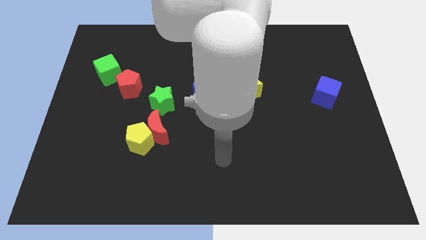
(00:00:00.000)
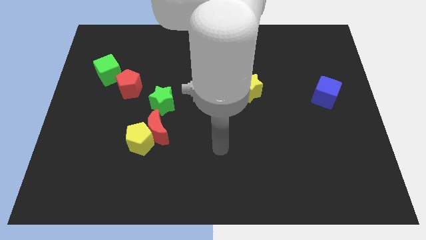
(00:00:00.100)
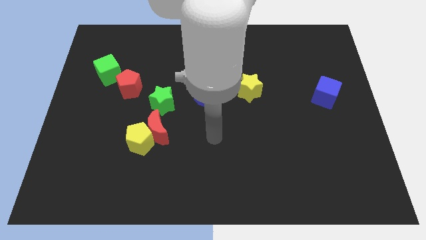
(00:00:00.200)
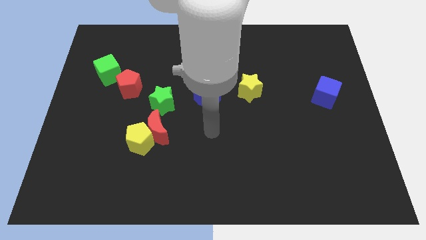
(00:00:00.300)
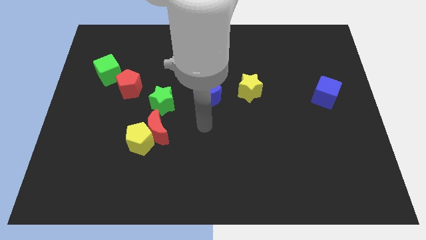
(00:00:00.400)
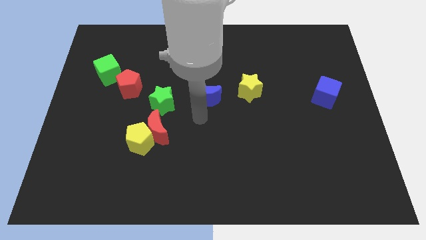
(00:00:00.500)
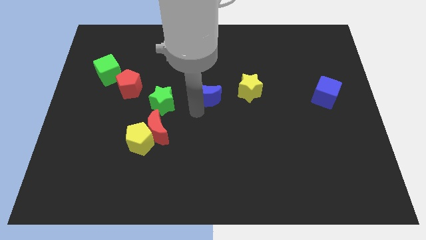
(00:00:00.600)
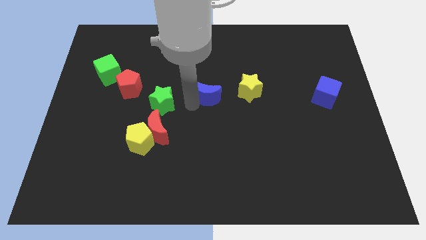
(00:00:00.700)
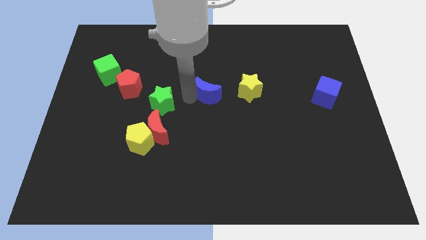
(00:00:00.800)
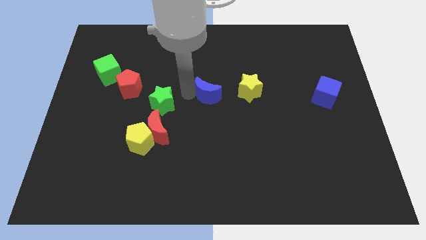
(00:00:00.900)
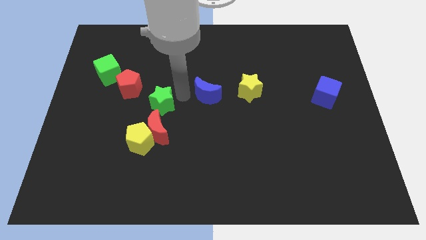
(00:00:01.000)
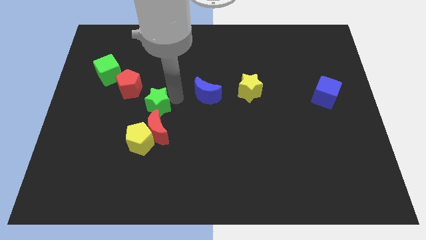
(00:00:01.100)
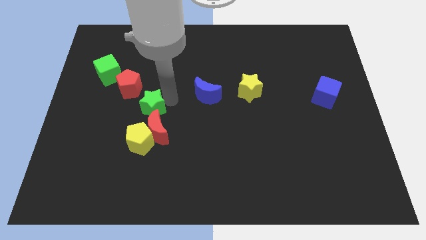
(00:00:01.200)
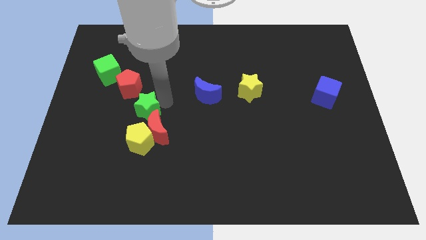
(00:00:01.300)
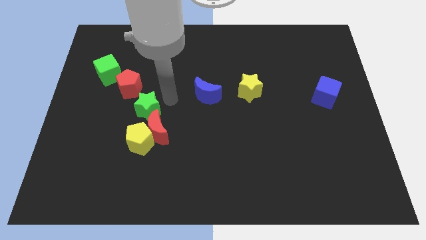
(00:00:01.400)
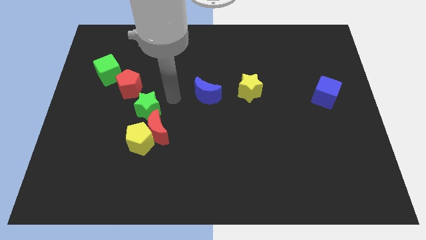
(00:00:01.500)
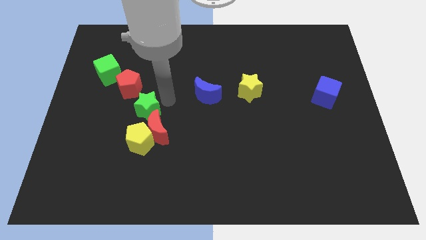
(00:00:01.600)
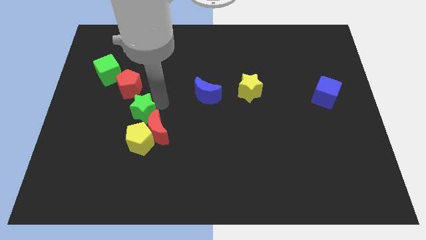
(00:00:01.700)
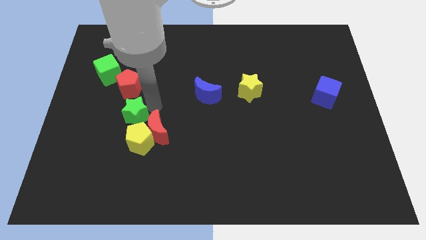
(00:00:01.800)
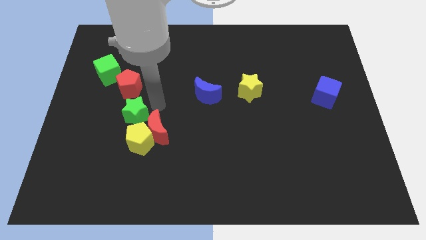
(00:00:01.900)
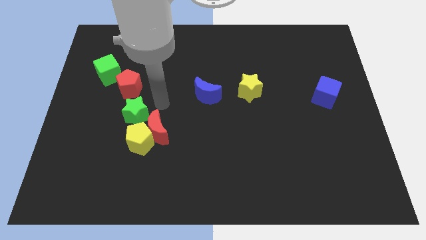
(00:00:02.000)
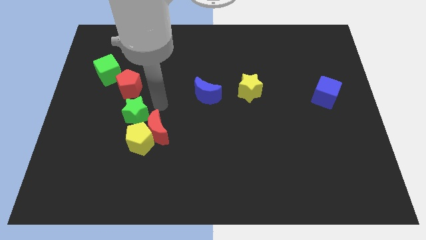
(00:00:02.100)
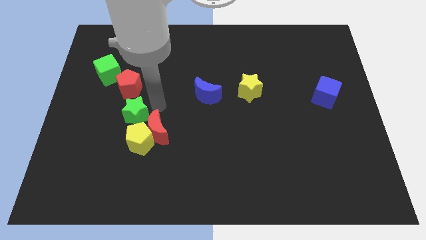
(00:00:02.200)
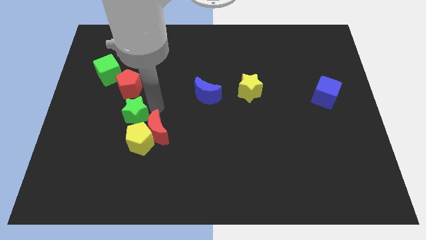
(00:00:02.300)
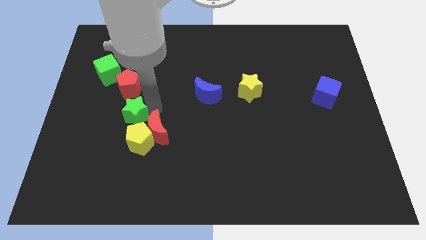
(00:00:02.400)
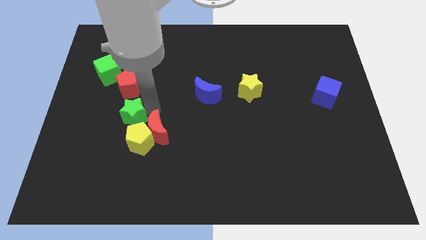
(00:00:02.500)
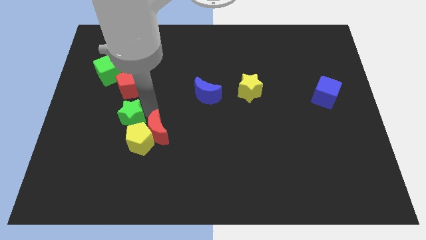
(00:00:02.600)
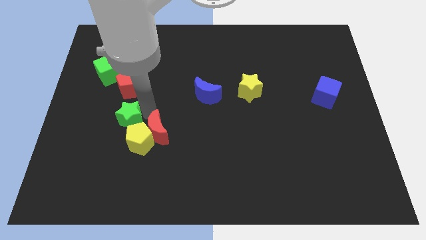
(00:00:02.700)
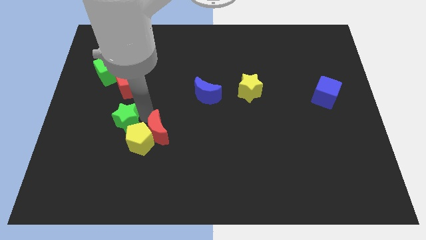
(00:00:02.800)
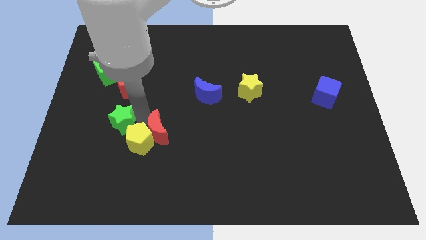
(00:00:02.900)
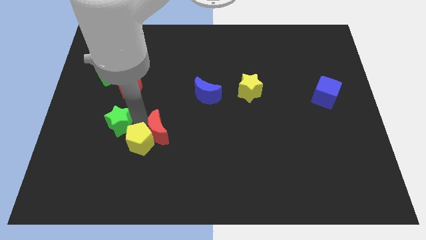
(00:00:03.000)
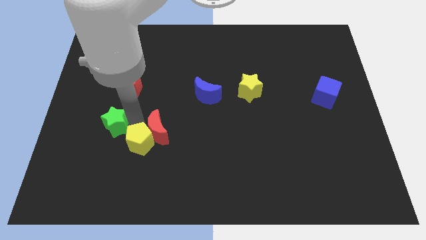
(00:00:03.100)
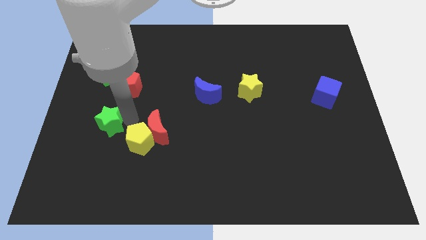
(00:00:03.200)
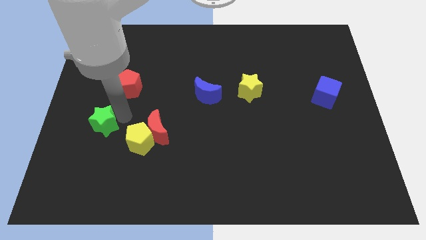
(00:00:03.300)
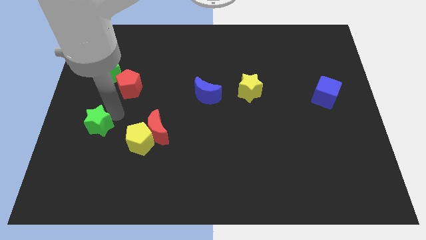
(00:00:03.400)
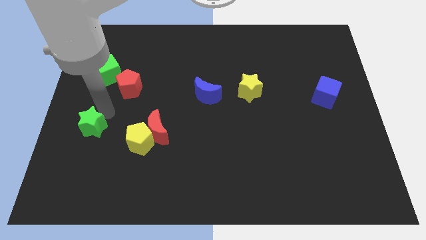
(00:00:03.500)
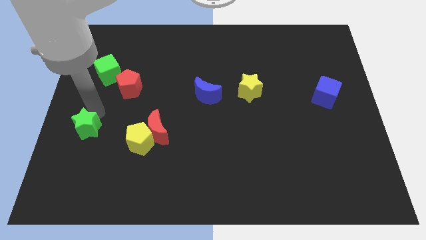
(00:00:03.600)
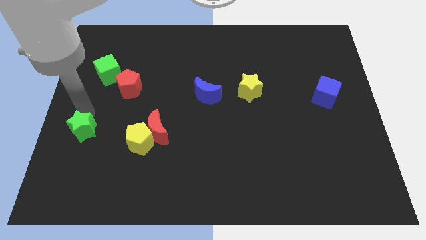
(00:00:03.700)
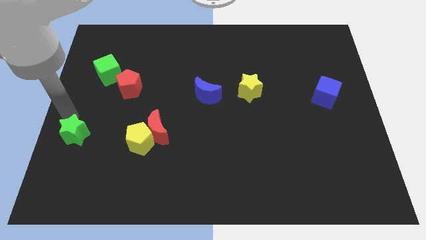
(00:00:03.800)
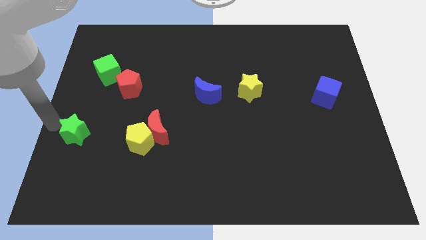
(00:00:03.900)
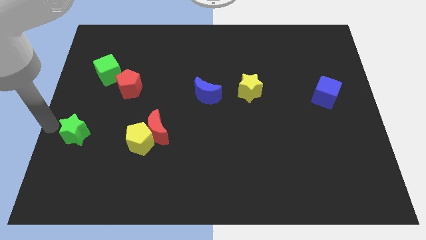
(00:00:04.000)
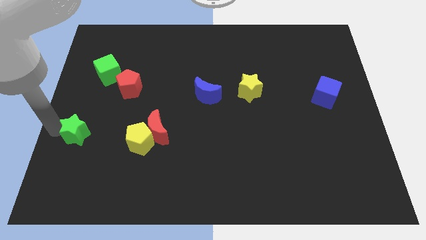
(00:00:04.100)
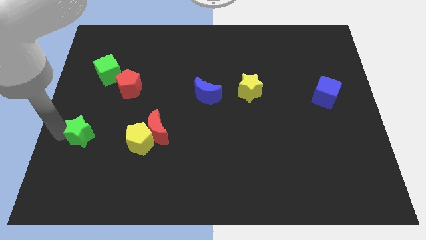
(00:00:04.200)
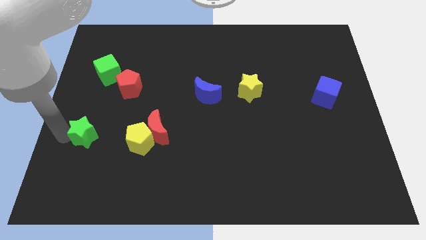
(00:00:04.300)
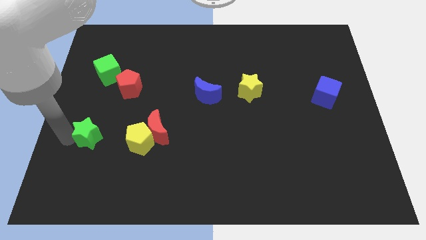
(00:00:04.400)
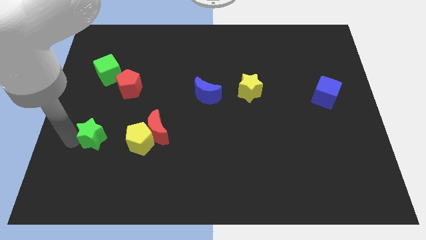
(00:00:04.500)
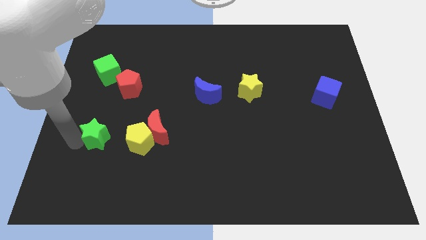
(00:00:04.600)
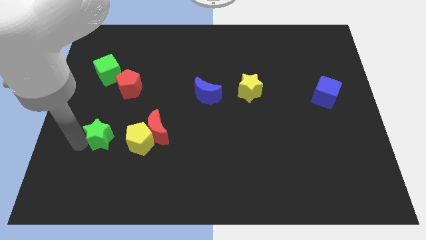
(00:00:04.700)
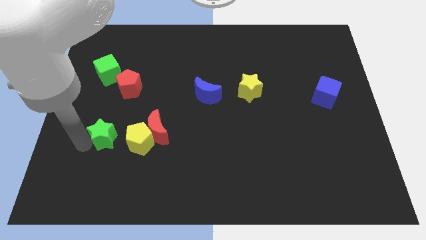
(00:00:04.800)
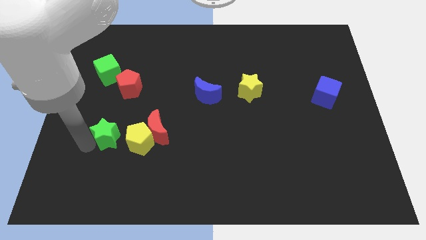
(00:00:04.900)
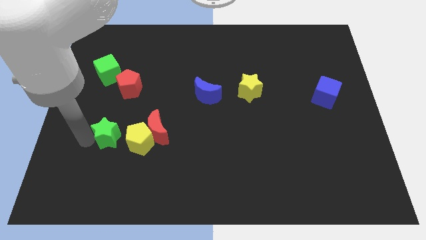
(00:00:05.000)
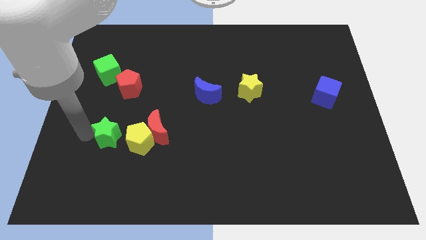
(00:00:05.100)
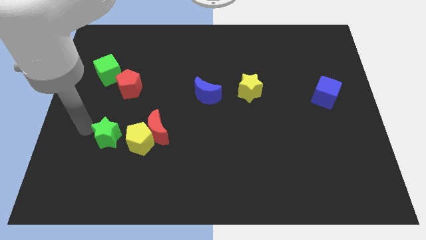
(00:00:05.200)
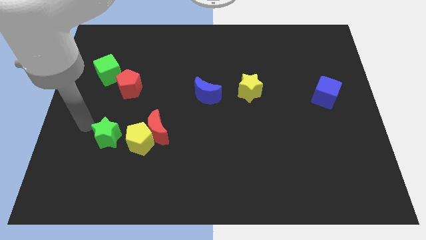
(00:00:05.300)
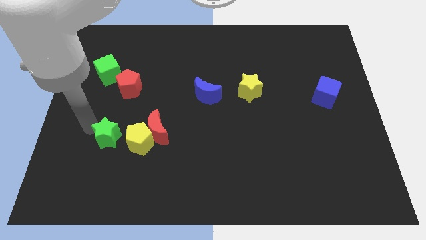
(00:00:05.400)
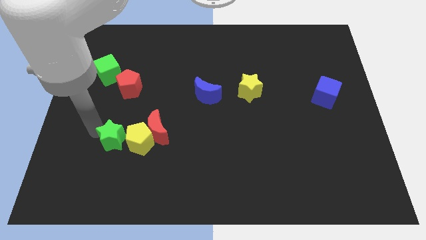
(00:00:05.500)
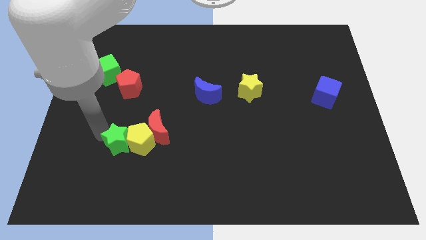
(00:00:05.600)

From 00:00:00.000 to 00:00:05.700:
slide the green star to the bottom left side of the red moon

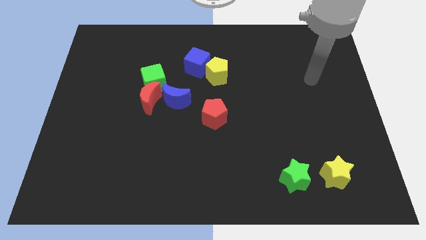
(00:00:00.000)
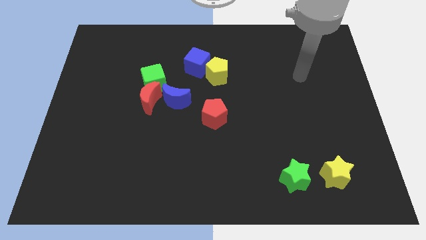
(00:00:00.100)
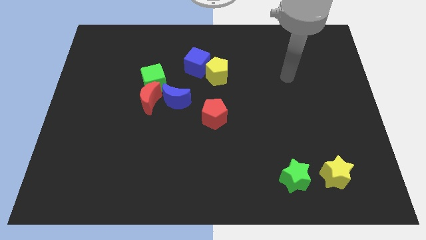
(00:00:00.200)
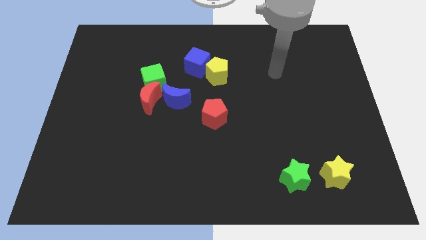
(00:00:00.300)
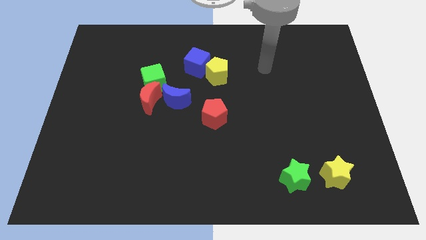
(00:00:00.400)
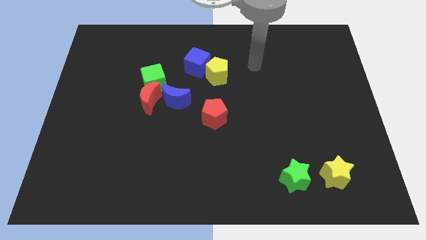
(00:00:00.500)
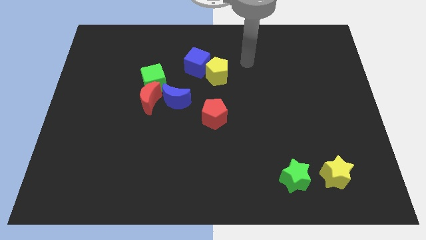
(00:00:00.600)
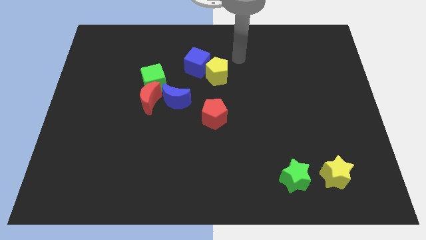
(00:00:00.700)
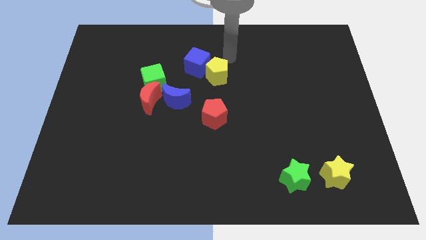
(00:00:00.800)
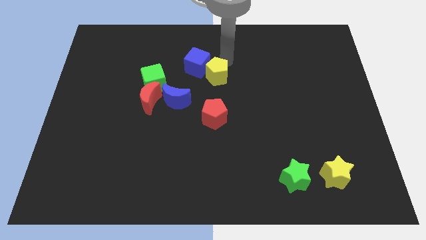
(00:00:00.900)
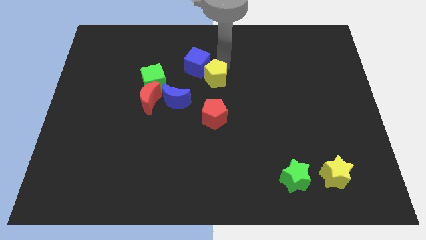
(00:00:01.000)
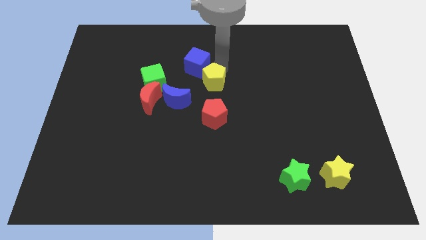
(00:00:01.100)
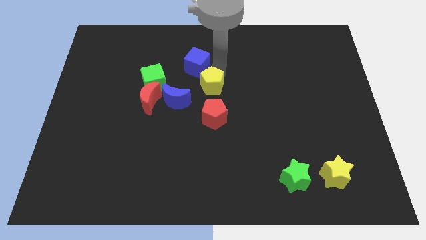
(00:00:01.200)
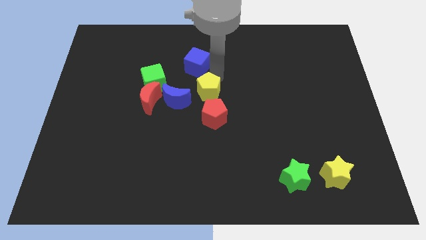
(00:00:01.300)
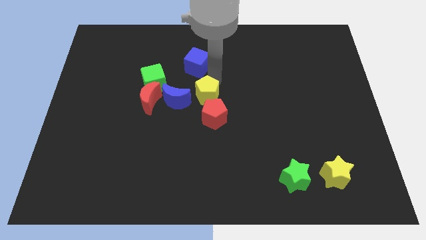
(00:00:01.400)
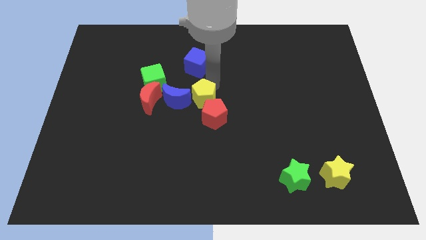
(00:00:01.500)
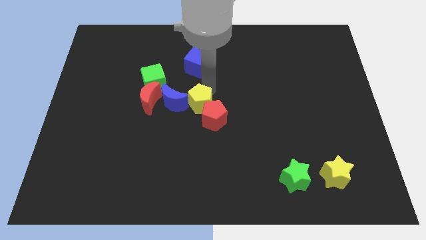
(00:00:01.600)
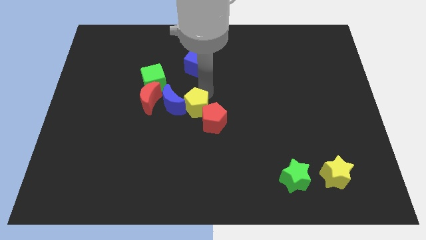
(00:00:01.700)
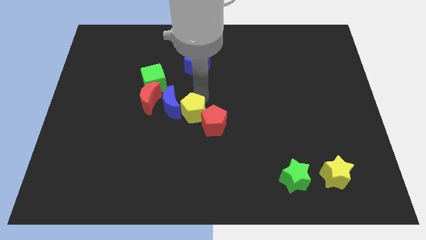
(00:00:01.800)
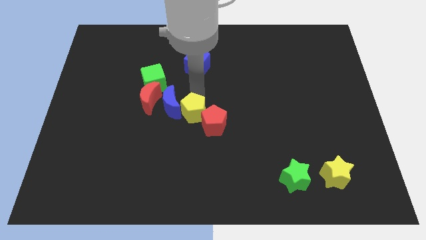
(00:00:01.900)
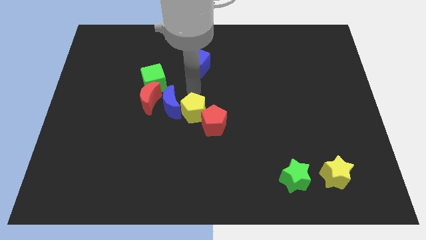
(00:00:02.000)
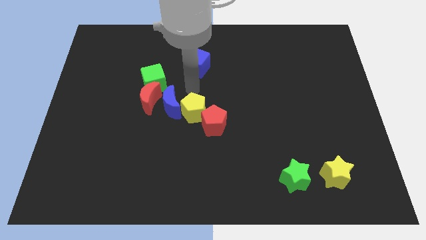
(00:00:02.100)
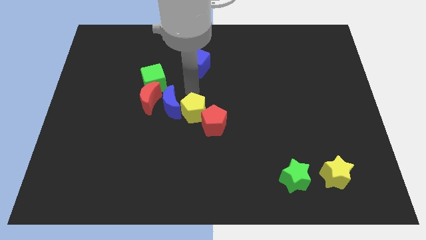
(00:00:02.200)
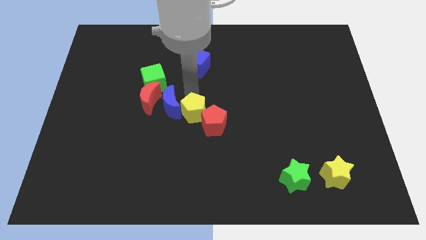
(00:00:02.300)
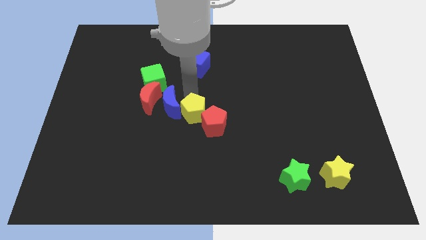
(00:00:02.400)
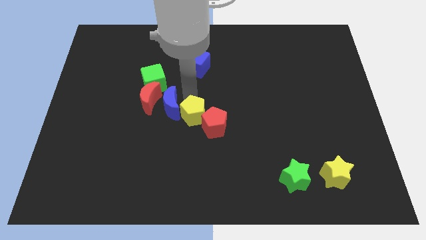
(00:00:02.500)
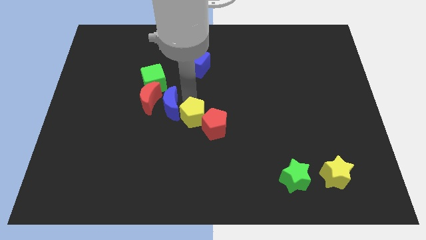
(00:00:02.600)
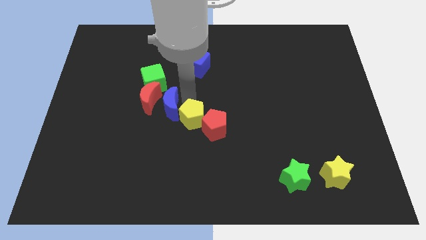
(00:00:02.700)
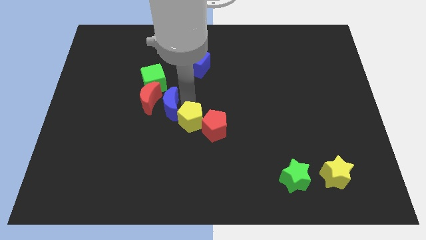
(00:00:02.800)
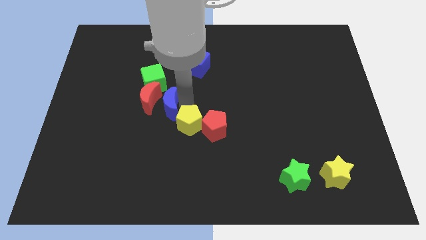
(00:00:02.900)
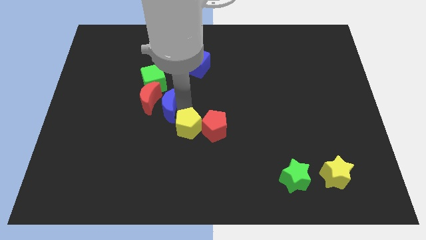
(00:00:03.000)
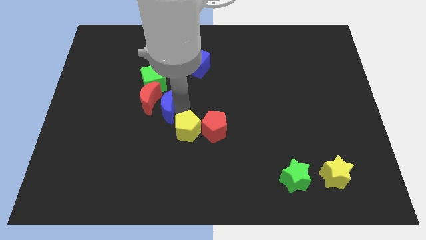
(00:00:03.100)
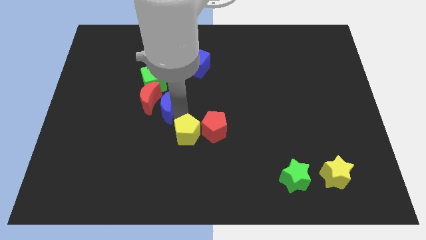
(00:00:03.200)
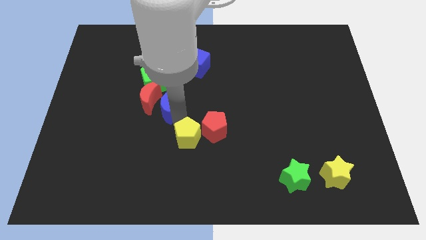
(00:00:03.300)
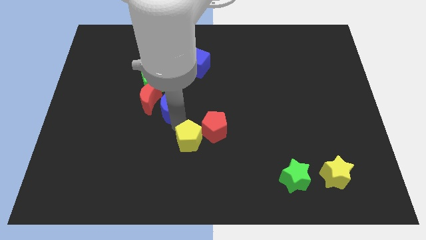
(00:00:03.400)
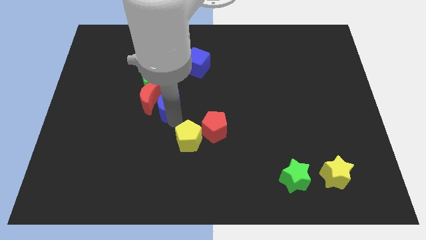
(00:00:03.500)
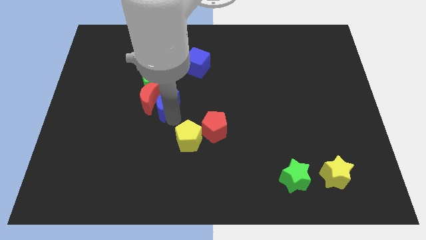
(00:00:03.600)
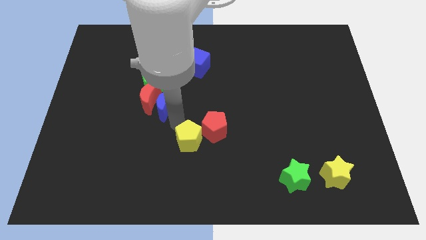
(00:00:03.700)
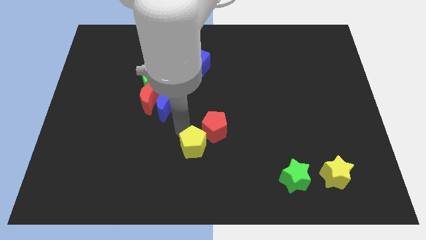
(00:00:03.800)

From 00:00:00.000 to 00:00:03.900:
slide the yellow pentagon to the bottom side of the red pentagon
